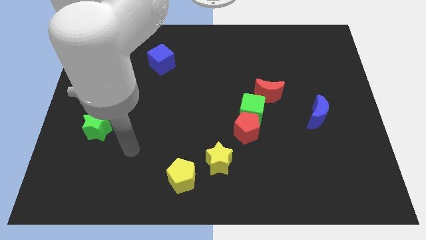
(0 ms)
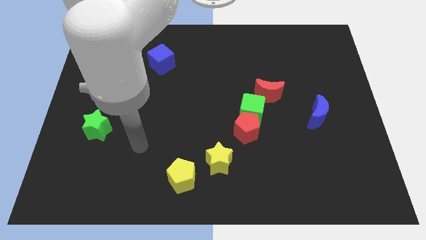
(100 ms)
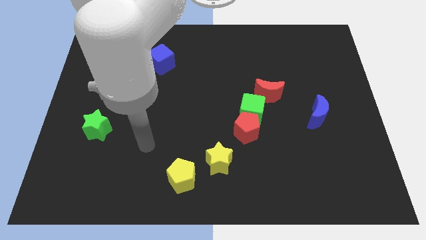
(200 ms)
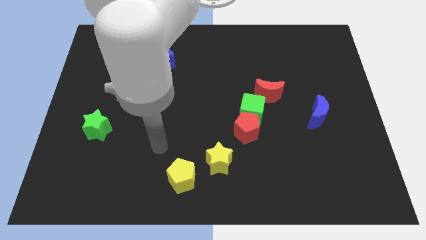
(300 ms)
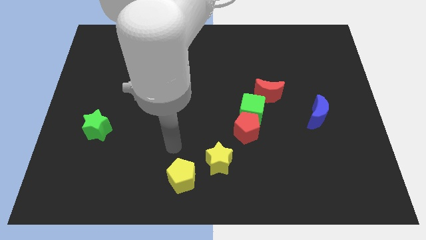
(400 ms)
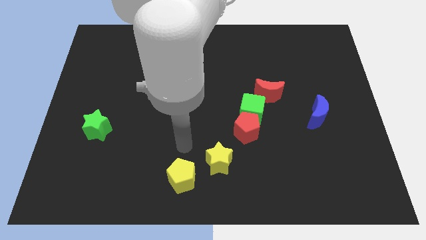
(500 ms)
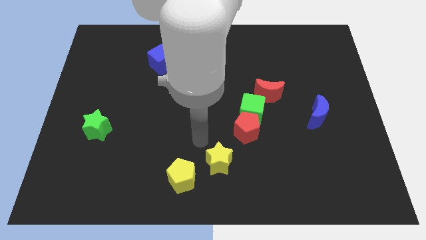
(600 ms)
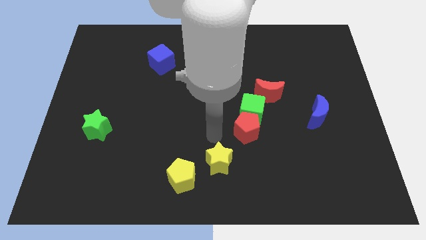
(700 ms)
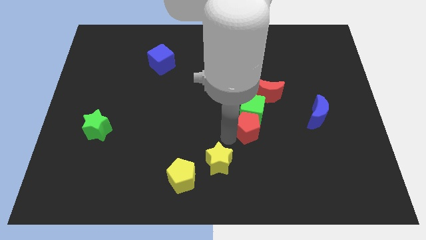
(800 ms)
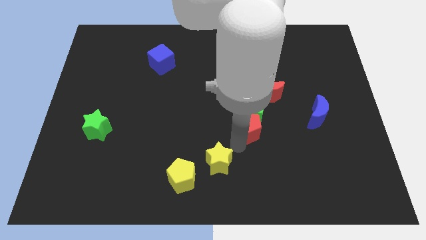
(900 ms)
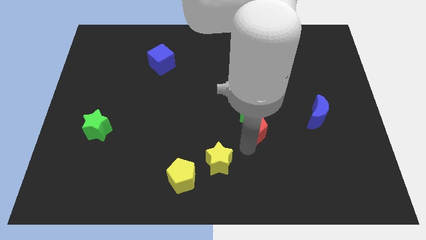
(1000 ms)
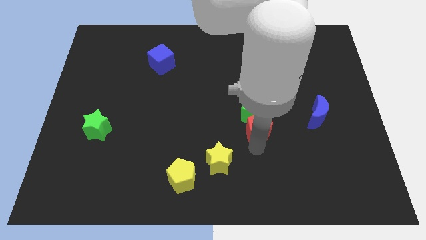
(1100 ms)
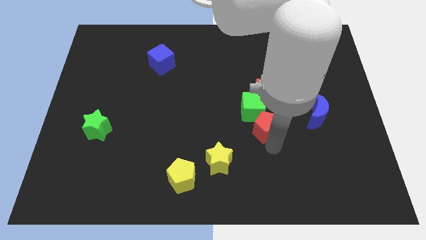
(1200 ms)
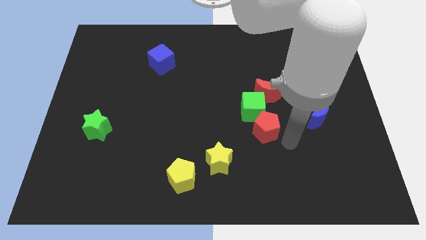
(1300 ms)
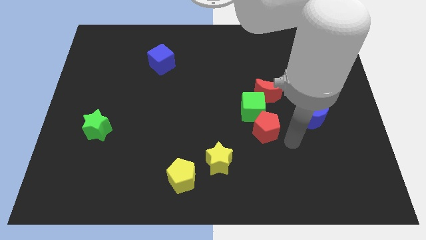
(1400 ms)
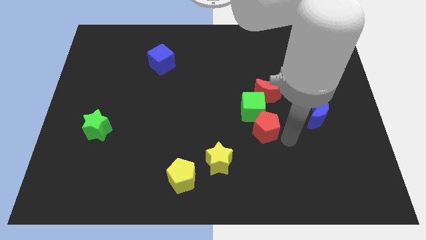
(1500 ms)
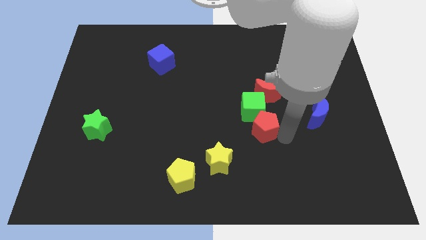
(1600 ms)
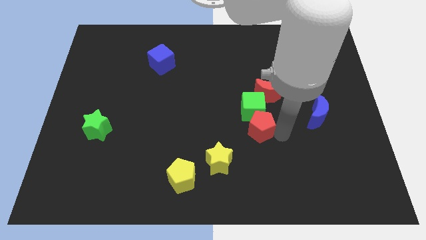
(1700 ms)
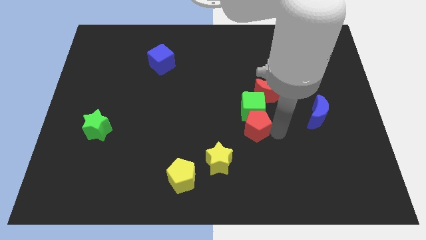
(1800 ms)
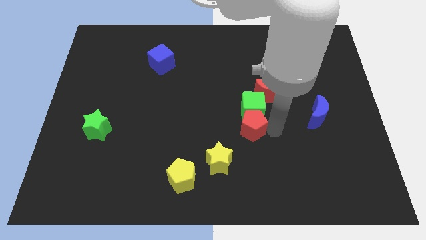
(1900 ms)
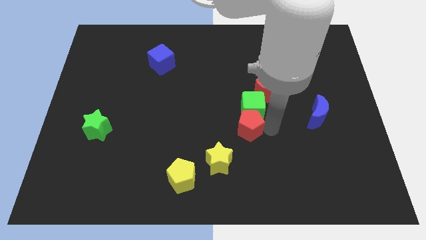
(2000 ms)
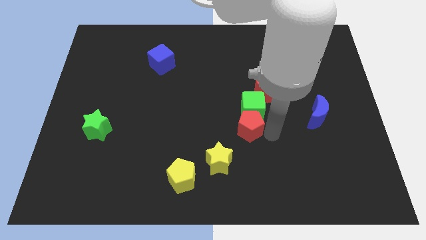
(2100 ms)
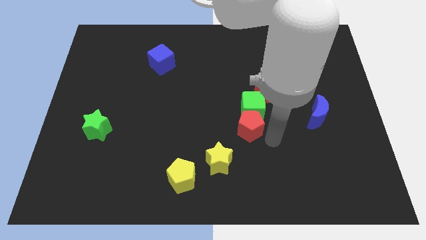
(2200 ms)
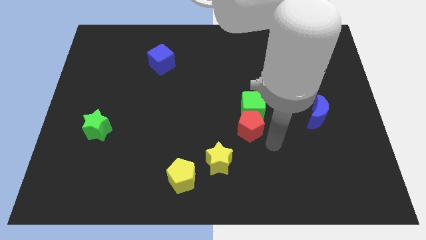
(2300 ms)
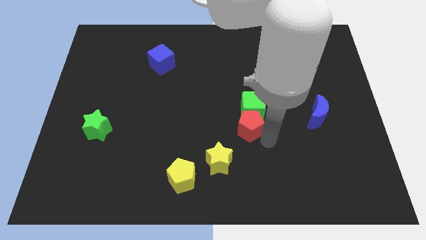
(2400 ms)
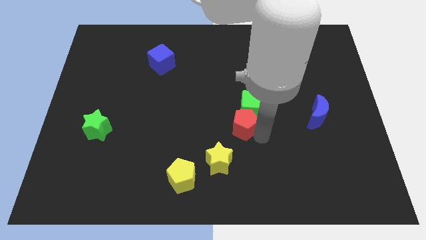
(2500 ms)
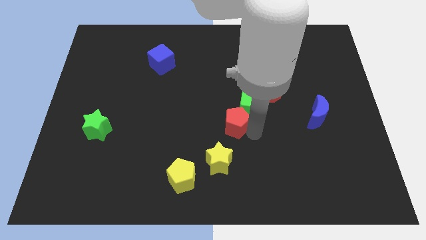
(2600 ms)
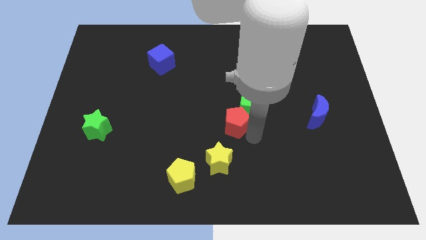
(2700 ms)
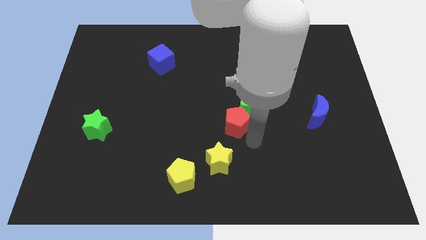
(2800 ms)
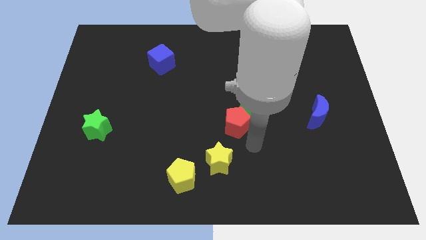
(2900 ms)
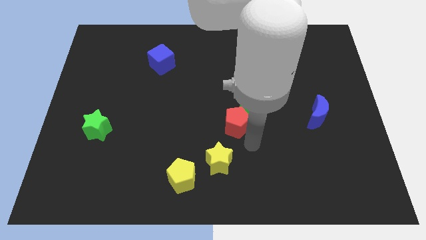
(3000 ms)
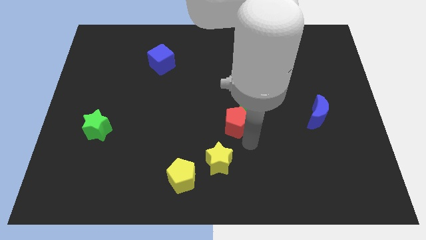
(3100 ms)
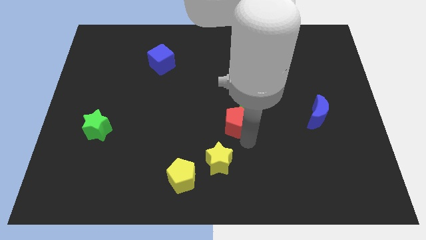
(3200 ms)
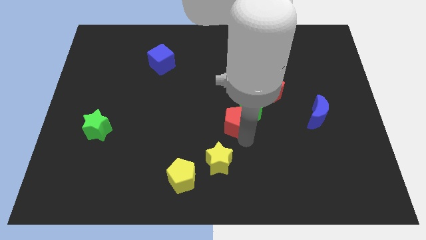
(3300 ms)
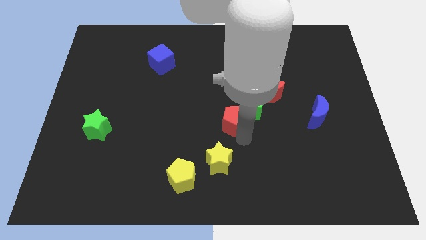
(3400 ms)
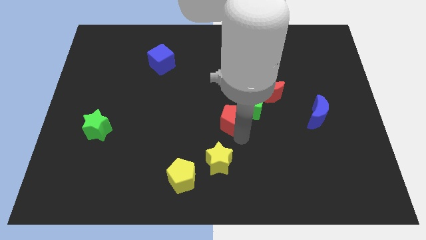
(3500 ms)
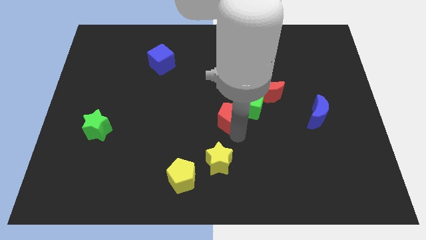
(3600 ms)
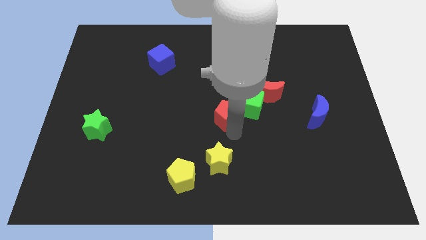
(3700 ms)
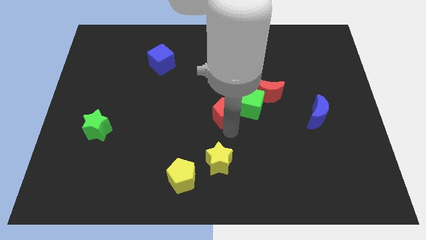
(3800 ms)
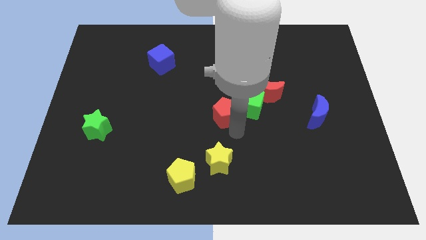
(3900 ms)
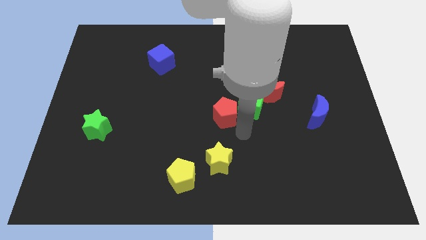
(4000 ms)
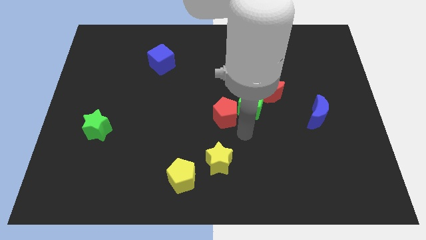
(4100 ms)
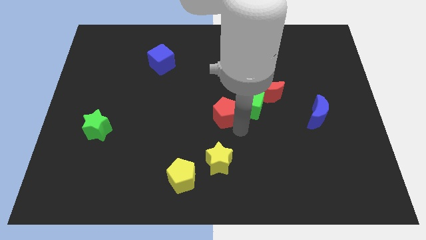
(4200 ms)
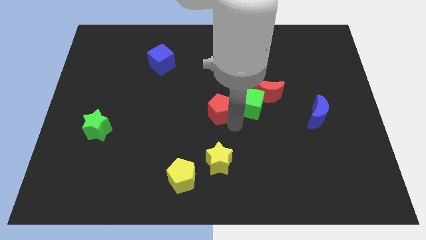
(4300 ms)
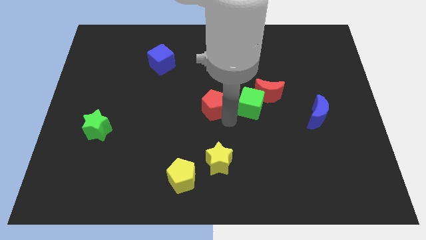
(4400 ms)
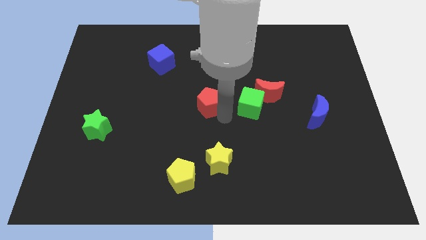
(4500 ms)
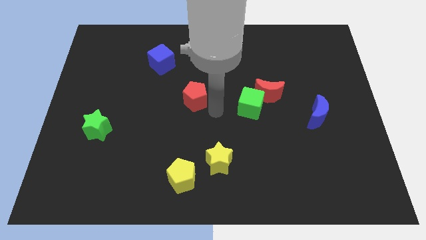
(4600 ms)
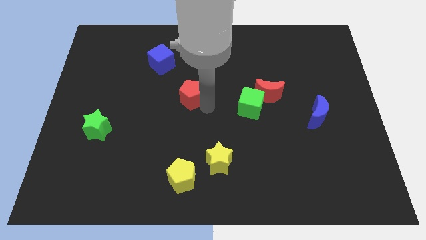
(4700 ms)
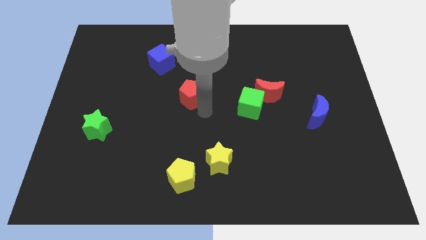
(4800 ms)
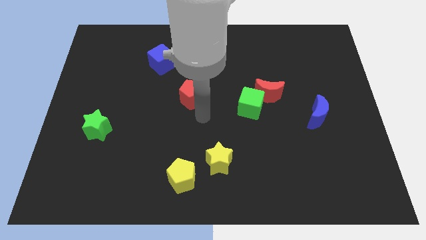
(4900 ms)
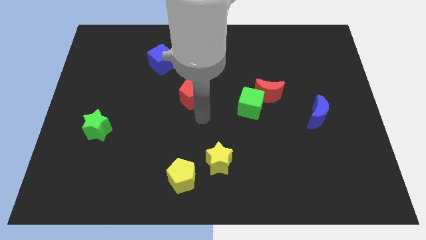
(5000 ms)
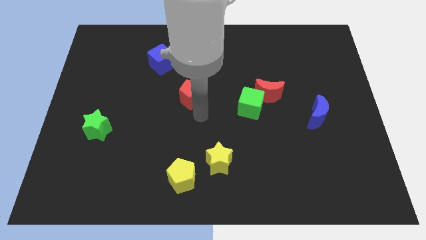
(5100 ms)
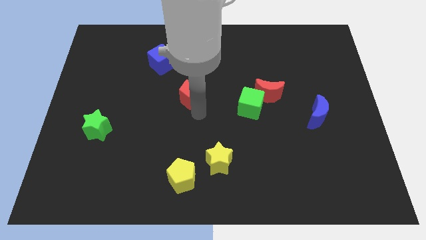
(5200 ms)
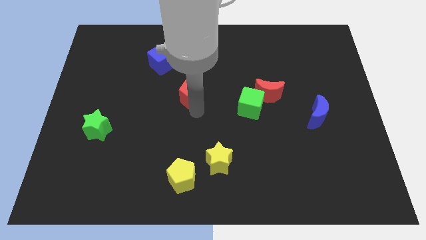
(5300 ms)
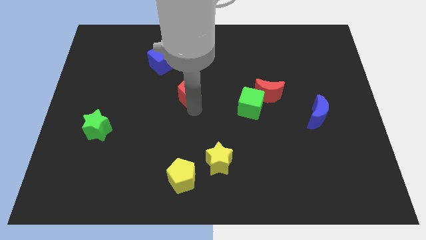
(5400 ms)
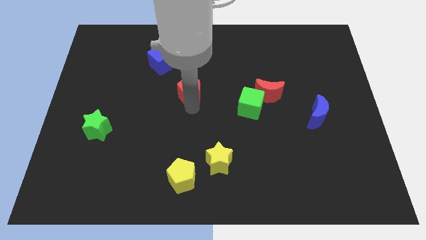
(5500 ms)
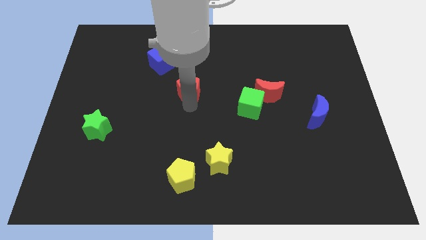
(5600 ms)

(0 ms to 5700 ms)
push the red pentagon to the bottom right side of the blue cube

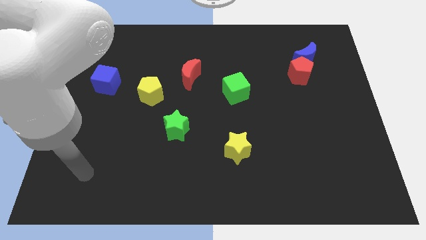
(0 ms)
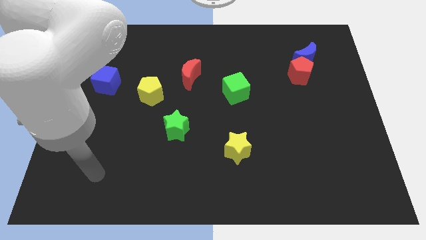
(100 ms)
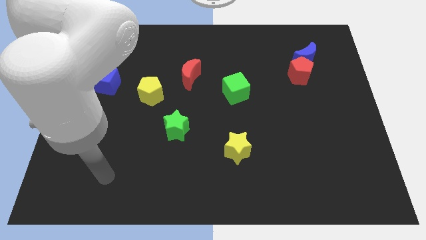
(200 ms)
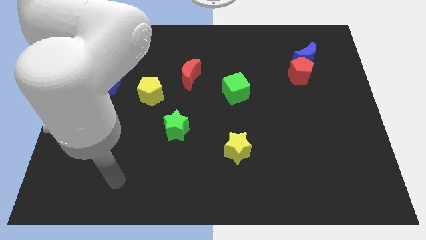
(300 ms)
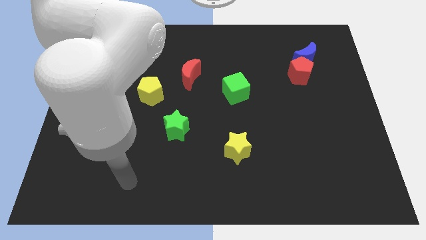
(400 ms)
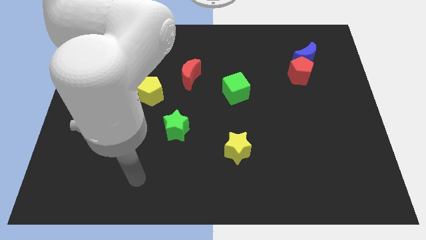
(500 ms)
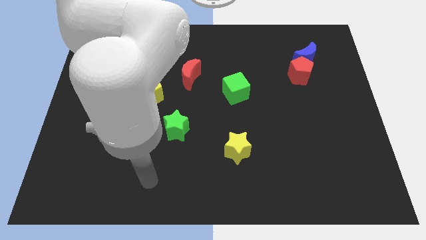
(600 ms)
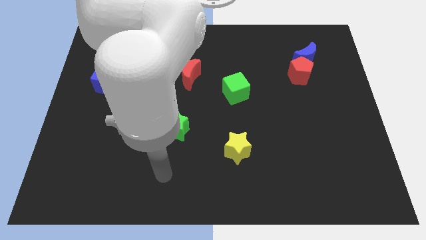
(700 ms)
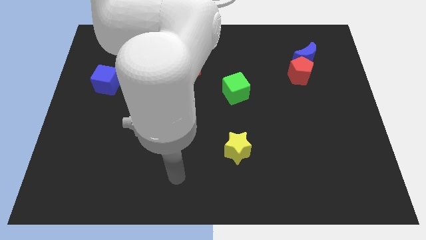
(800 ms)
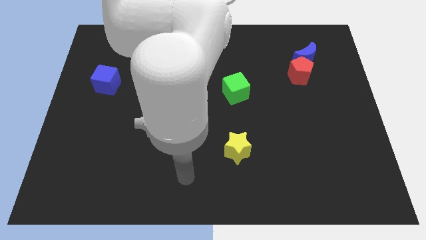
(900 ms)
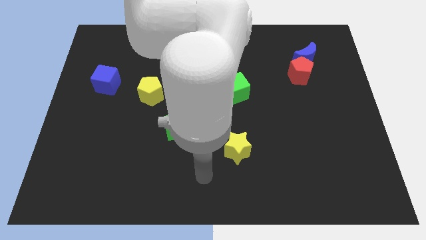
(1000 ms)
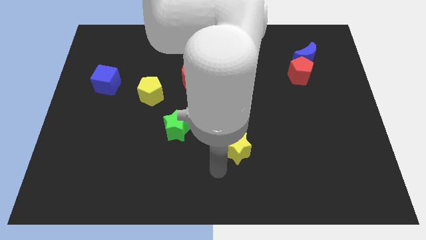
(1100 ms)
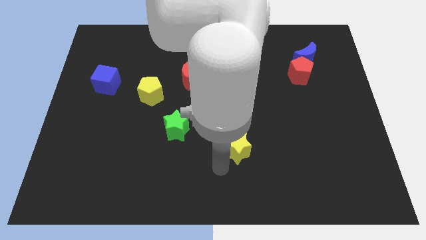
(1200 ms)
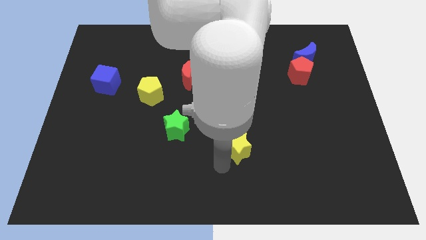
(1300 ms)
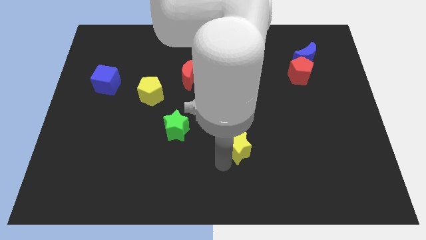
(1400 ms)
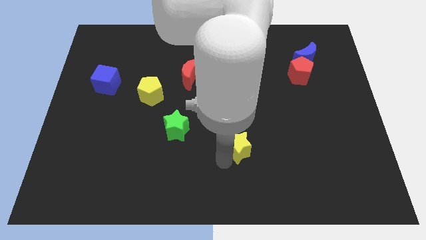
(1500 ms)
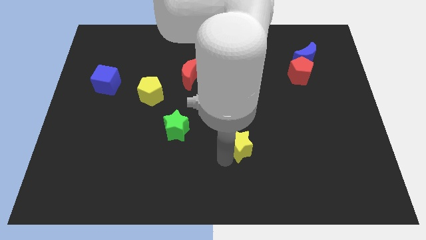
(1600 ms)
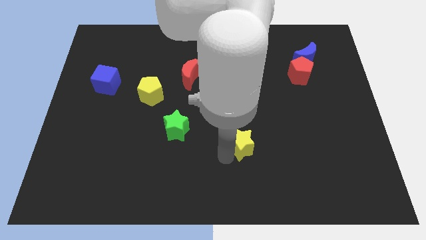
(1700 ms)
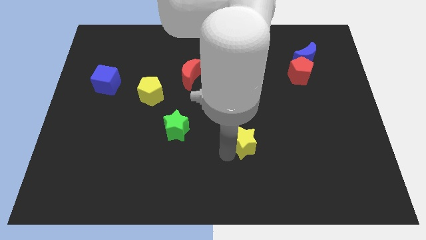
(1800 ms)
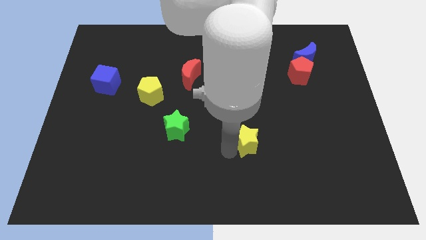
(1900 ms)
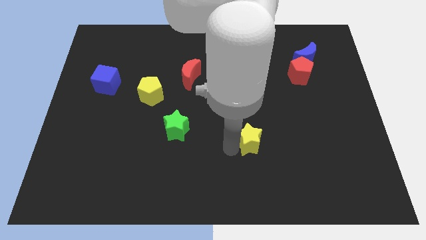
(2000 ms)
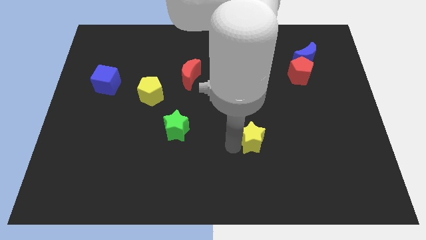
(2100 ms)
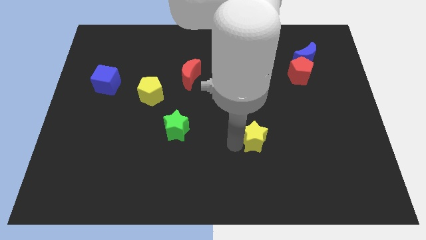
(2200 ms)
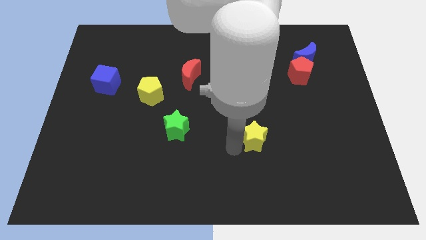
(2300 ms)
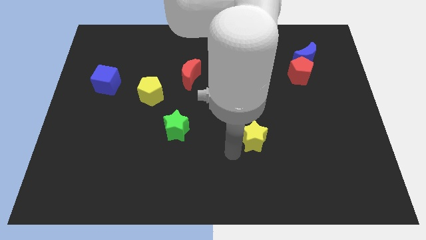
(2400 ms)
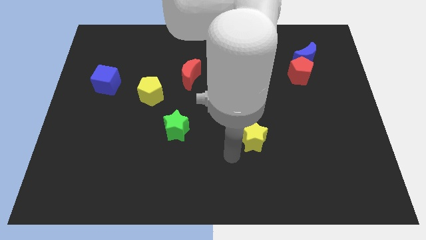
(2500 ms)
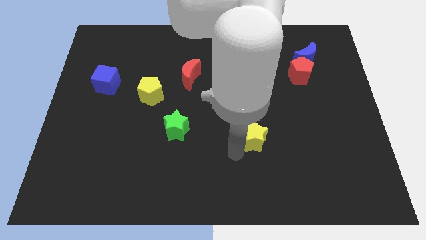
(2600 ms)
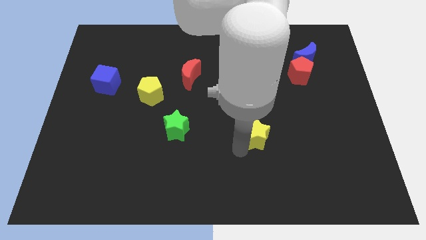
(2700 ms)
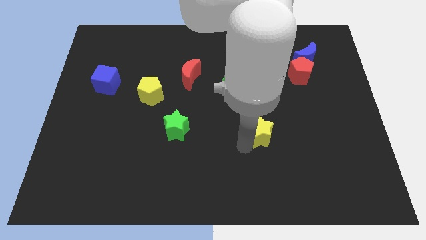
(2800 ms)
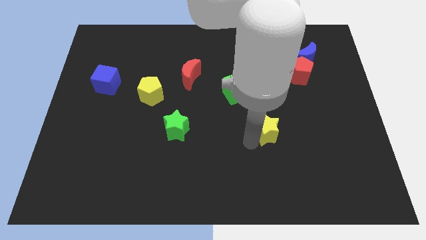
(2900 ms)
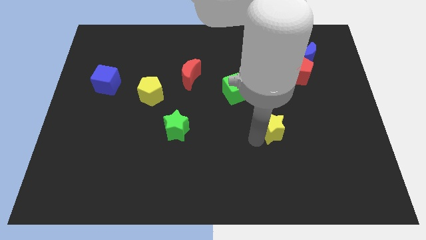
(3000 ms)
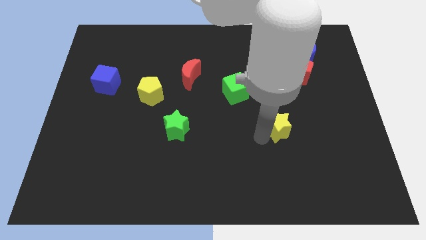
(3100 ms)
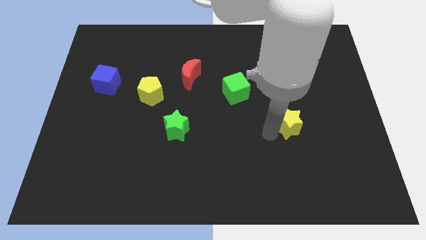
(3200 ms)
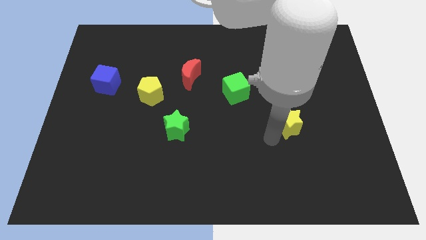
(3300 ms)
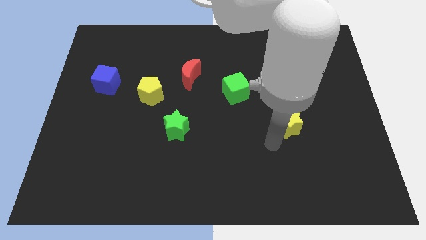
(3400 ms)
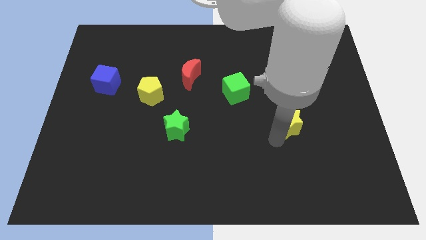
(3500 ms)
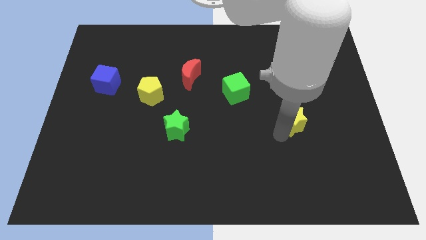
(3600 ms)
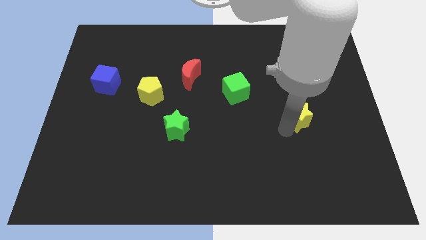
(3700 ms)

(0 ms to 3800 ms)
move the yellow star to the bottom of the red pentagon
